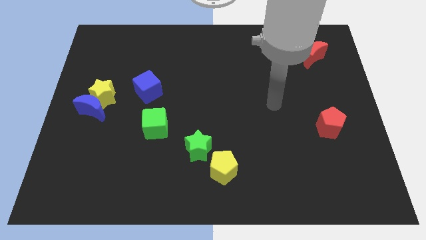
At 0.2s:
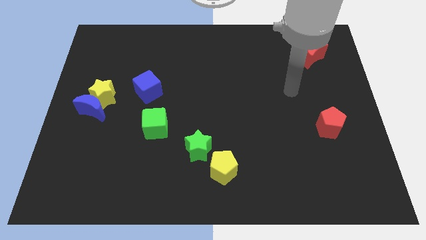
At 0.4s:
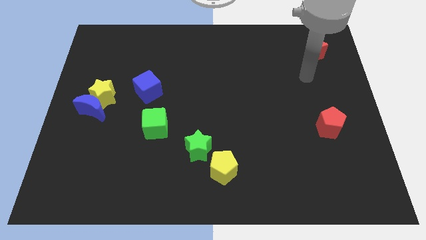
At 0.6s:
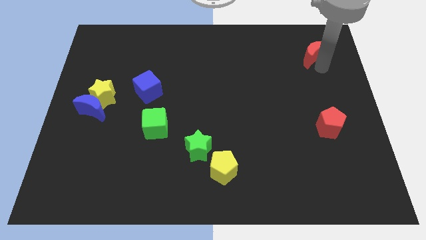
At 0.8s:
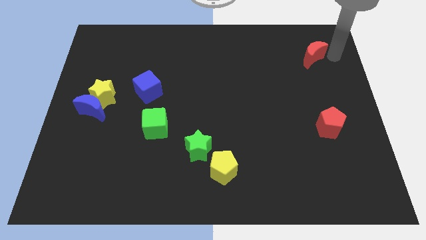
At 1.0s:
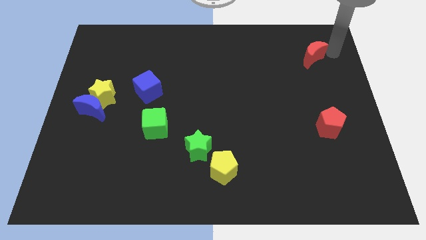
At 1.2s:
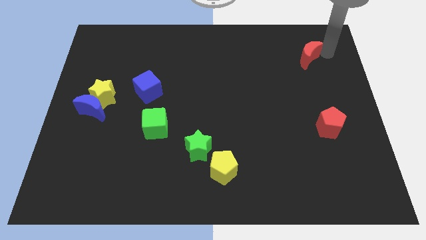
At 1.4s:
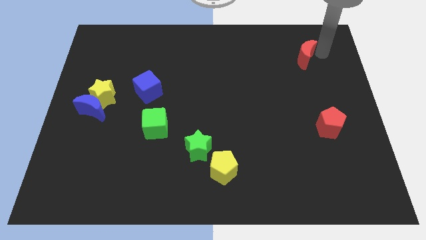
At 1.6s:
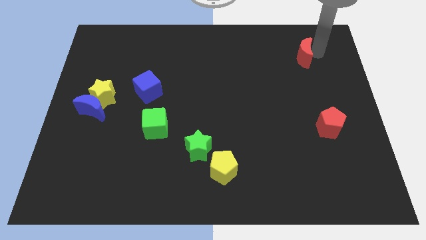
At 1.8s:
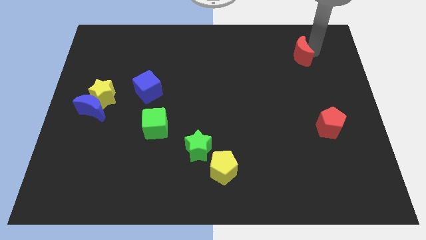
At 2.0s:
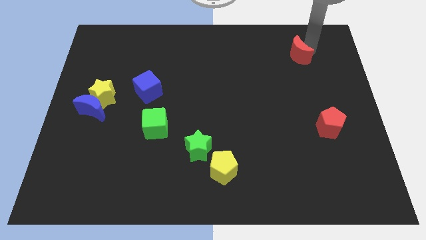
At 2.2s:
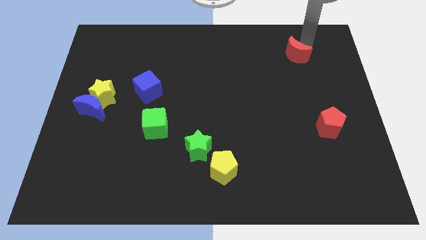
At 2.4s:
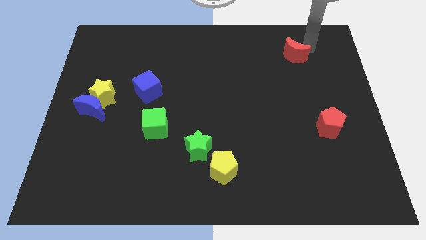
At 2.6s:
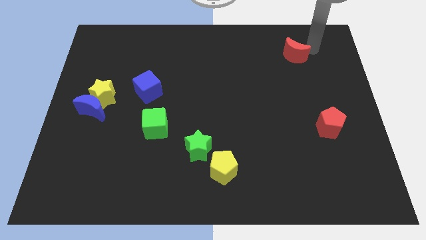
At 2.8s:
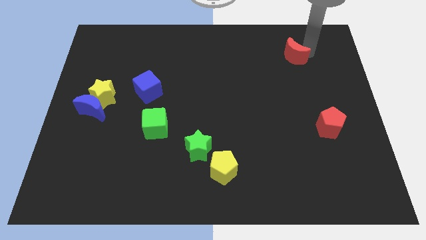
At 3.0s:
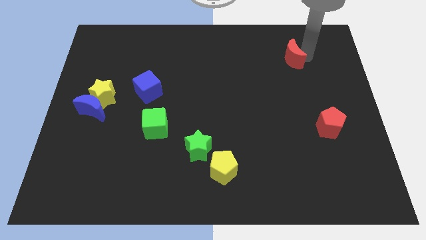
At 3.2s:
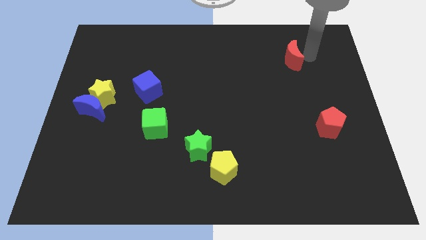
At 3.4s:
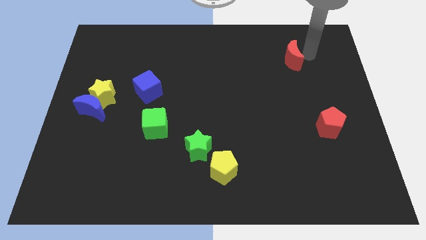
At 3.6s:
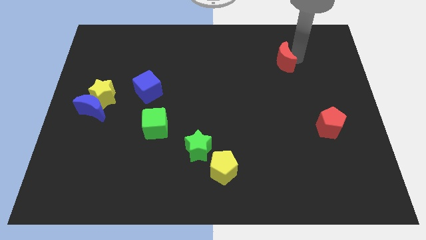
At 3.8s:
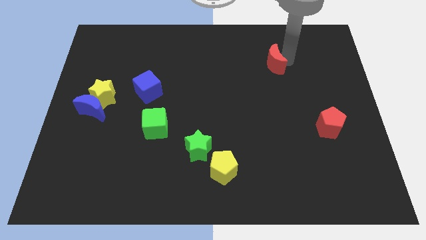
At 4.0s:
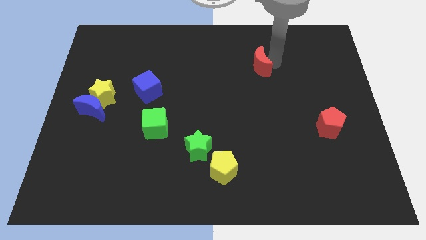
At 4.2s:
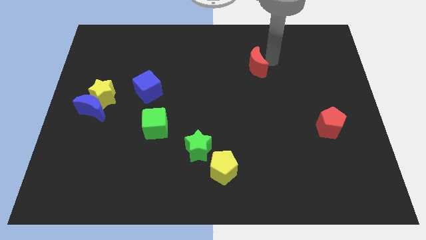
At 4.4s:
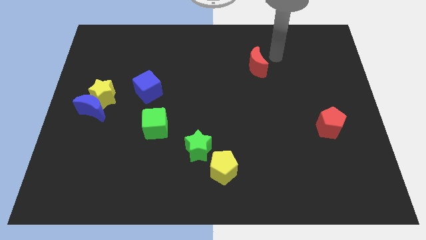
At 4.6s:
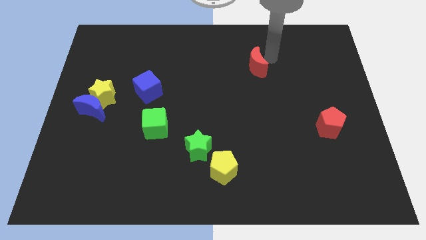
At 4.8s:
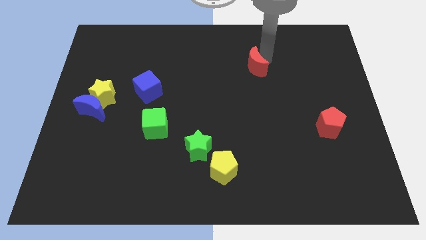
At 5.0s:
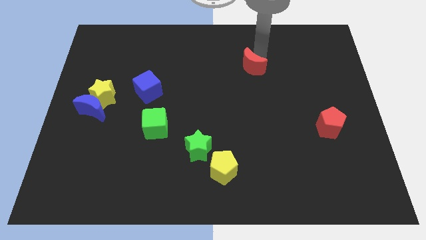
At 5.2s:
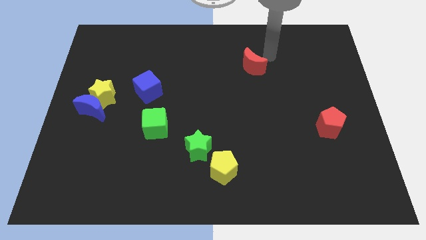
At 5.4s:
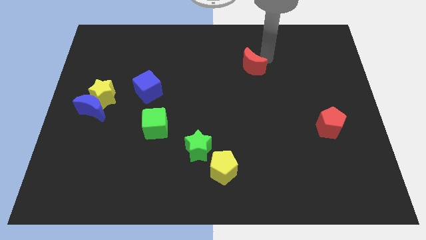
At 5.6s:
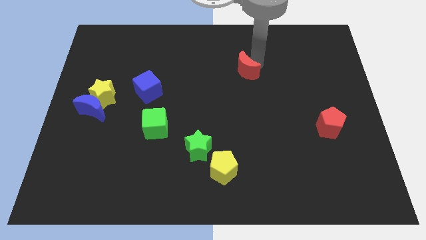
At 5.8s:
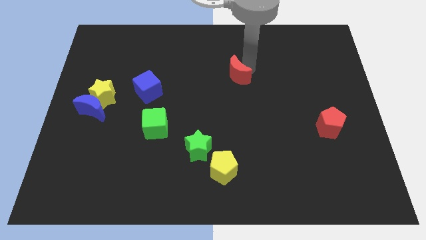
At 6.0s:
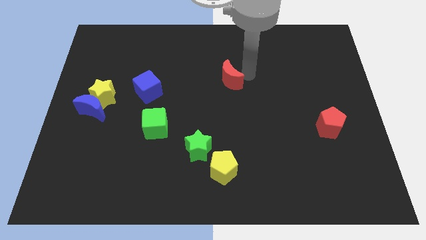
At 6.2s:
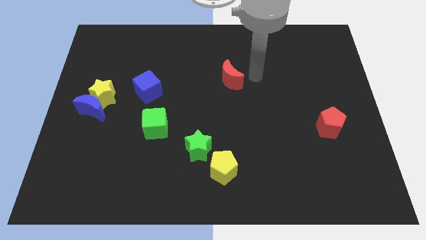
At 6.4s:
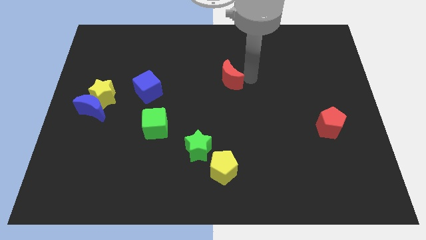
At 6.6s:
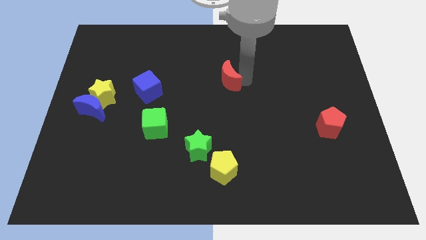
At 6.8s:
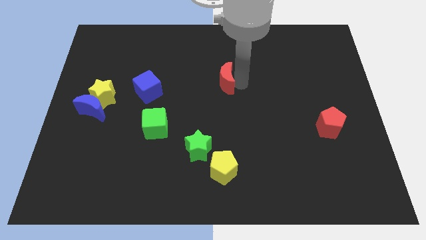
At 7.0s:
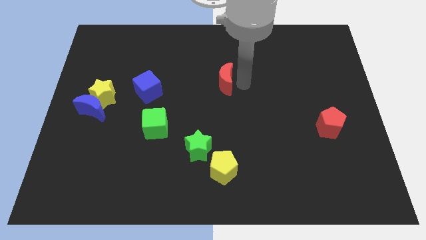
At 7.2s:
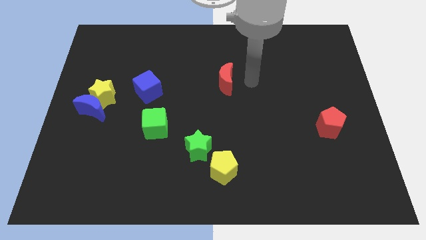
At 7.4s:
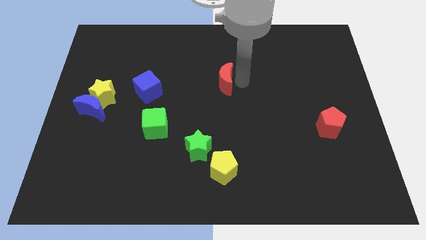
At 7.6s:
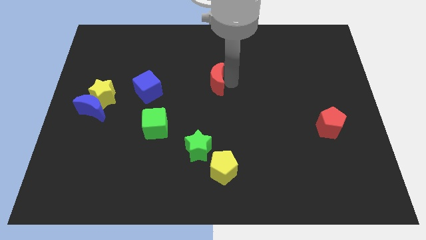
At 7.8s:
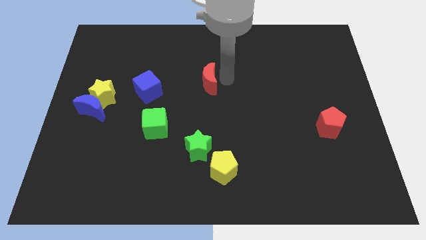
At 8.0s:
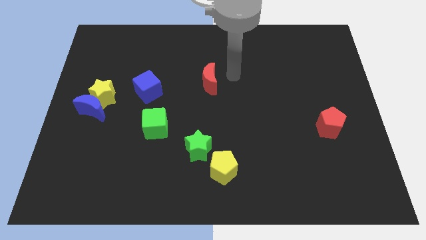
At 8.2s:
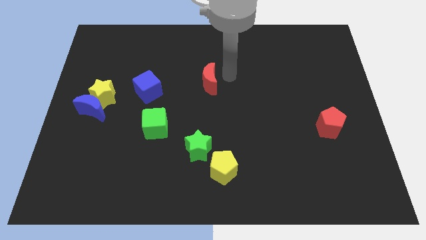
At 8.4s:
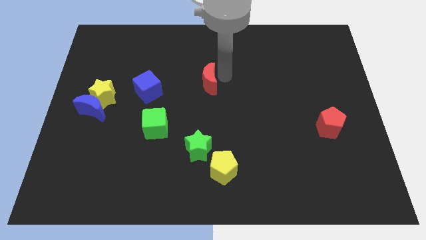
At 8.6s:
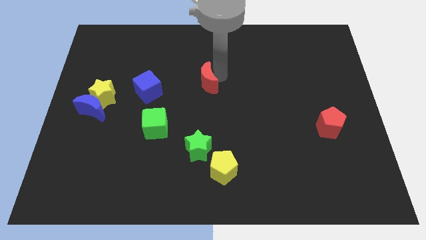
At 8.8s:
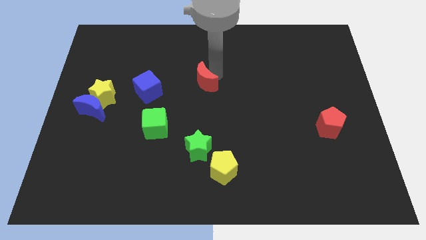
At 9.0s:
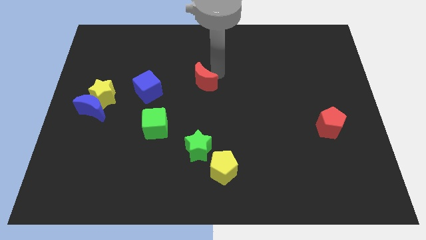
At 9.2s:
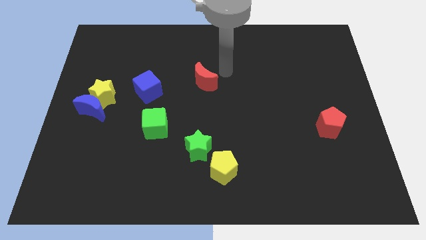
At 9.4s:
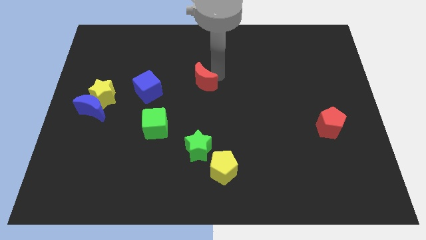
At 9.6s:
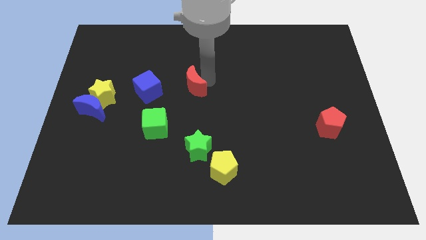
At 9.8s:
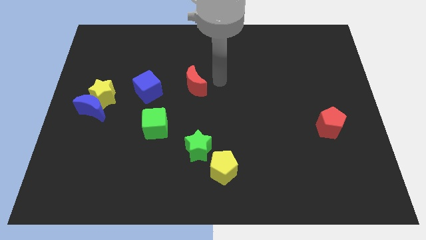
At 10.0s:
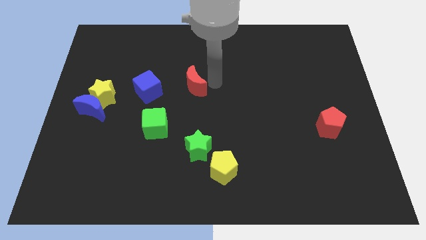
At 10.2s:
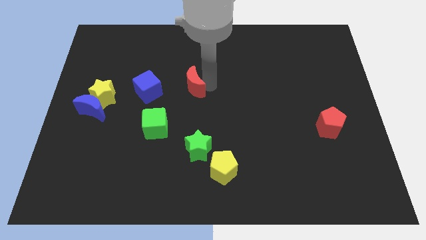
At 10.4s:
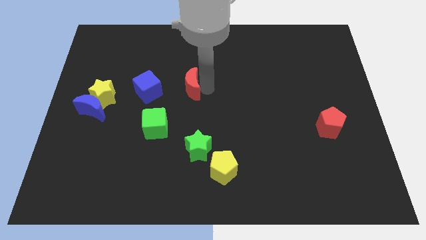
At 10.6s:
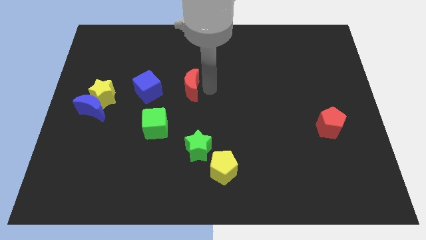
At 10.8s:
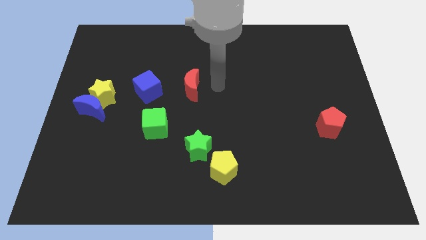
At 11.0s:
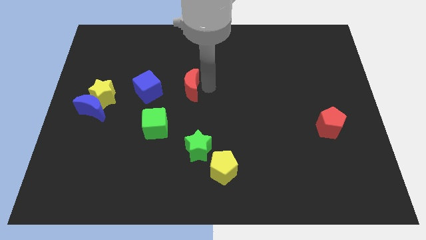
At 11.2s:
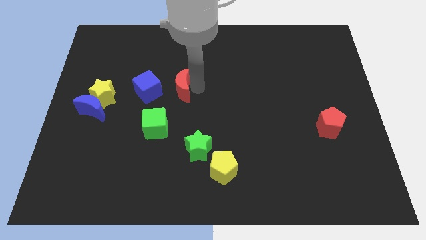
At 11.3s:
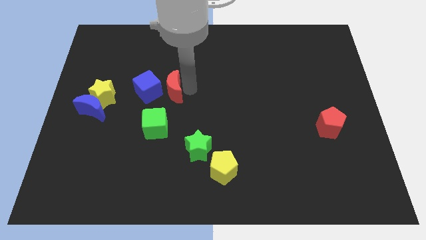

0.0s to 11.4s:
put the red moon next to the blue cube

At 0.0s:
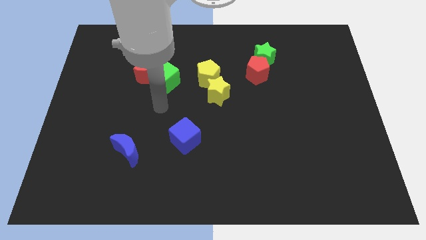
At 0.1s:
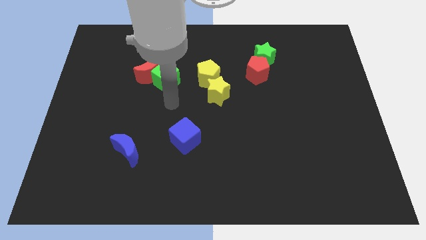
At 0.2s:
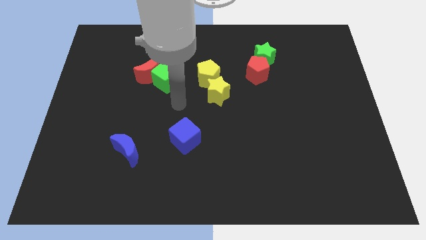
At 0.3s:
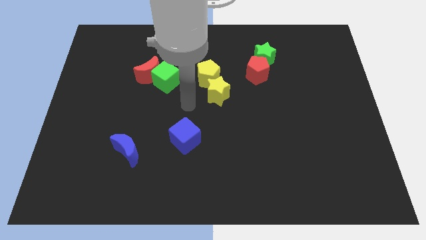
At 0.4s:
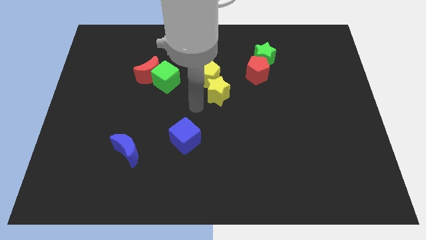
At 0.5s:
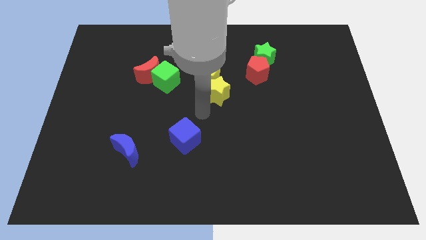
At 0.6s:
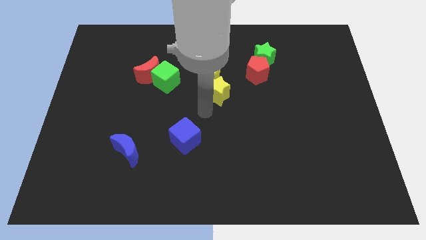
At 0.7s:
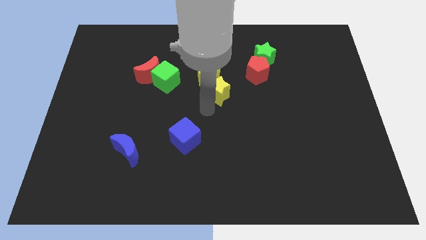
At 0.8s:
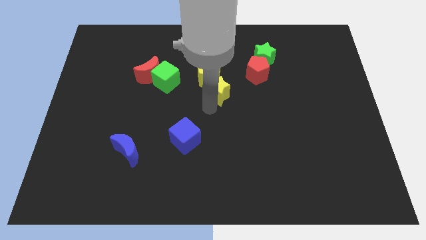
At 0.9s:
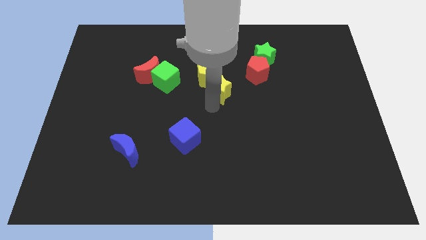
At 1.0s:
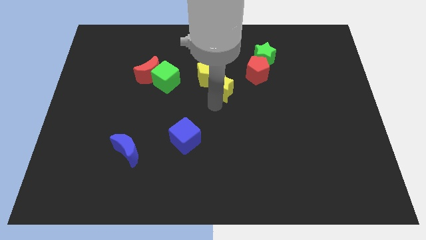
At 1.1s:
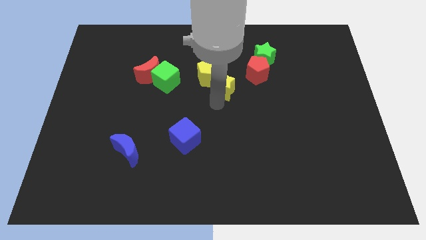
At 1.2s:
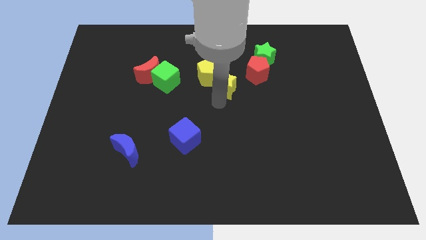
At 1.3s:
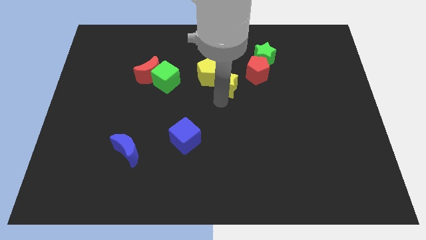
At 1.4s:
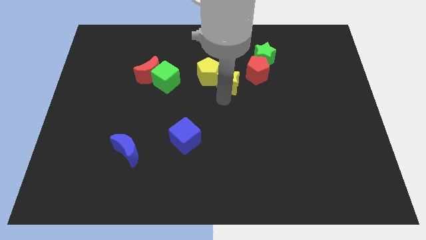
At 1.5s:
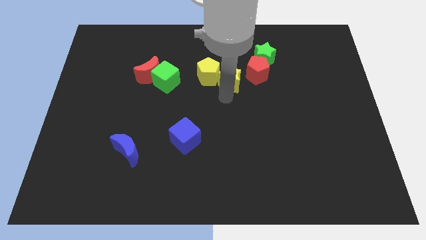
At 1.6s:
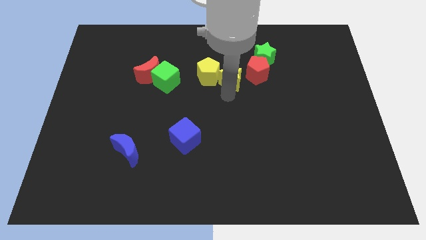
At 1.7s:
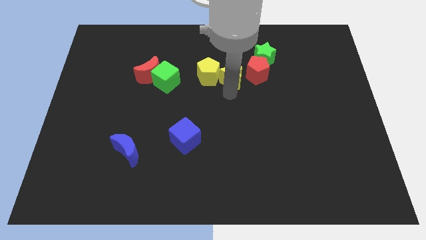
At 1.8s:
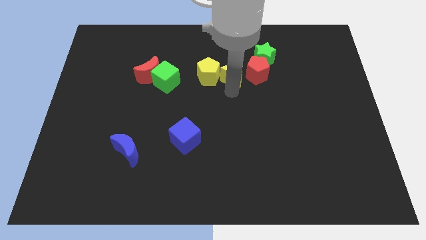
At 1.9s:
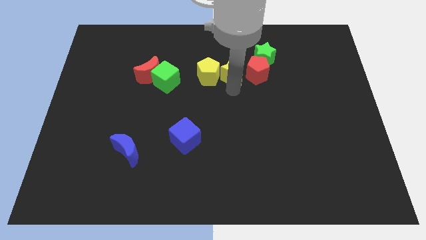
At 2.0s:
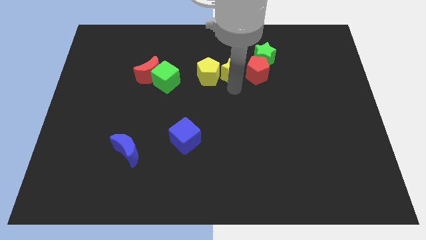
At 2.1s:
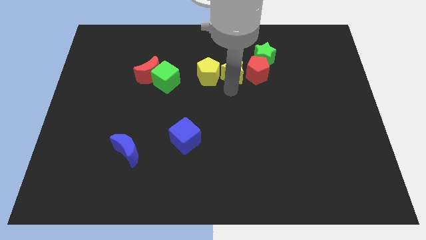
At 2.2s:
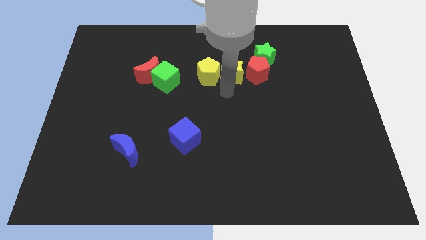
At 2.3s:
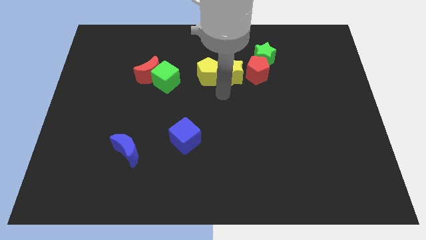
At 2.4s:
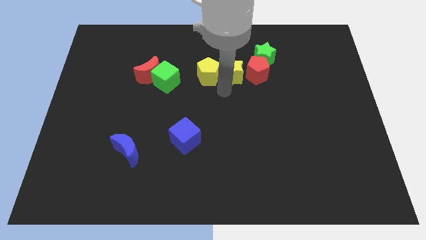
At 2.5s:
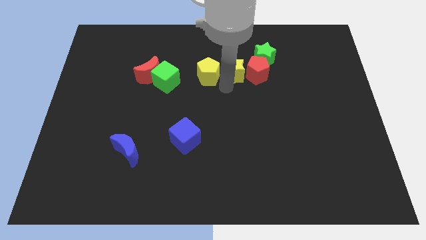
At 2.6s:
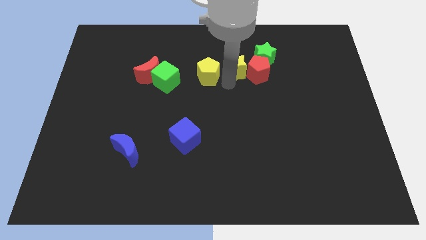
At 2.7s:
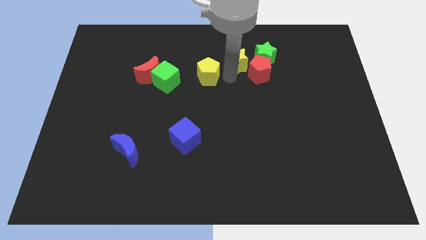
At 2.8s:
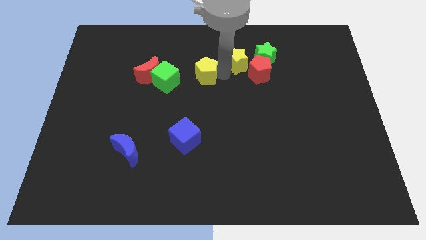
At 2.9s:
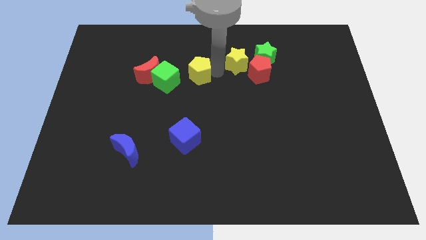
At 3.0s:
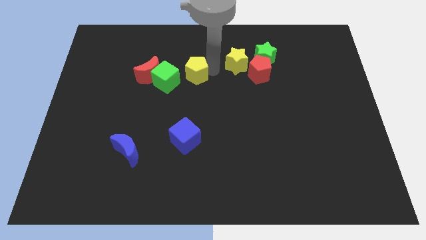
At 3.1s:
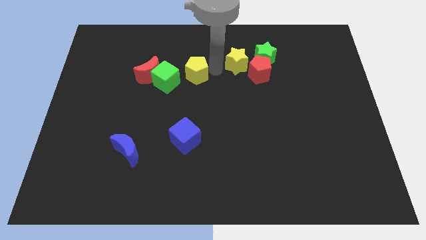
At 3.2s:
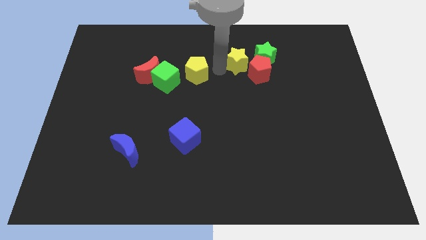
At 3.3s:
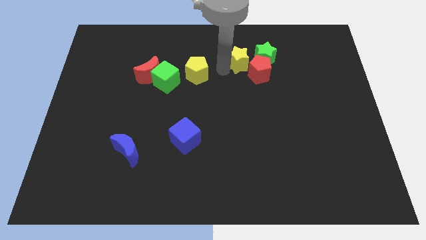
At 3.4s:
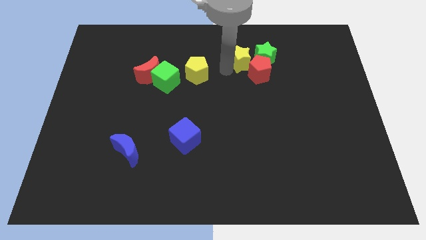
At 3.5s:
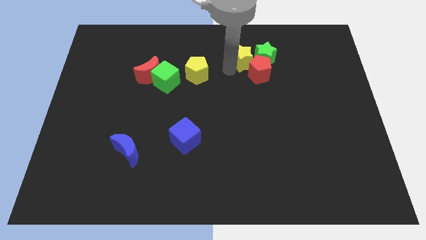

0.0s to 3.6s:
put the yellow star close to the green star
